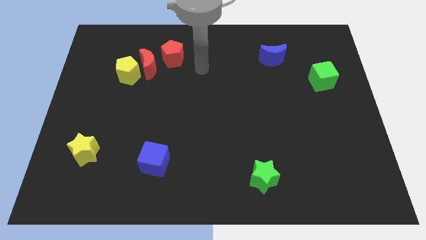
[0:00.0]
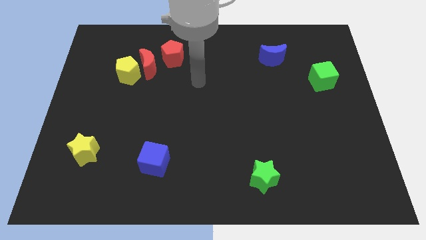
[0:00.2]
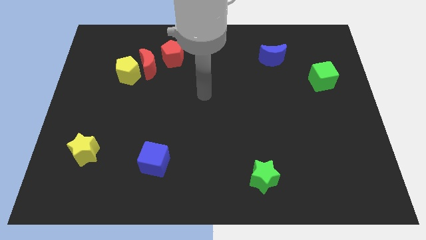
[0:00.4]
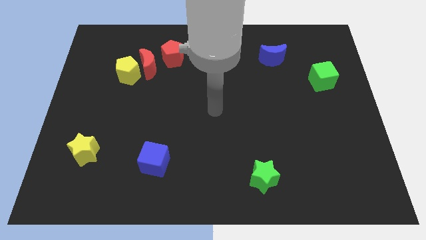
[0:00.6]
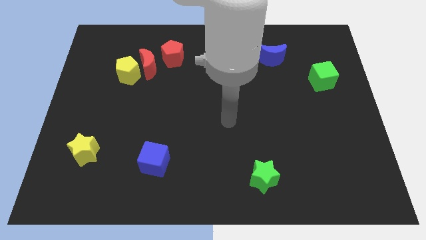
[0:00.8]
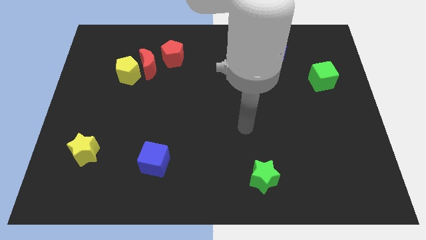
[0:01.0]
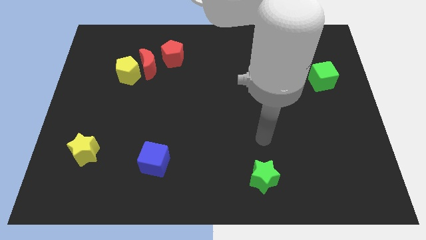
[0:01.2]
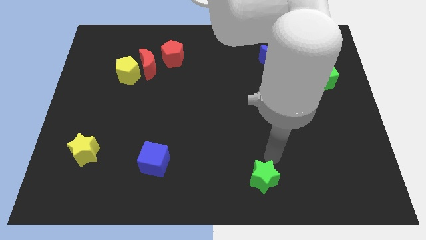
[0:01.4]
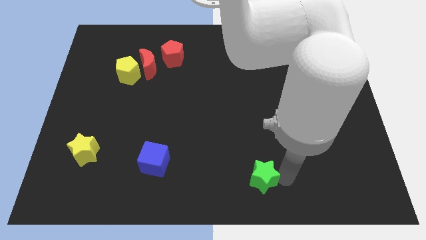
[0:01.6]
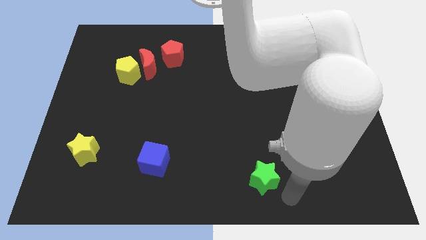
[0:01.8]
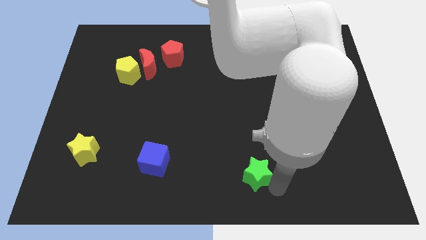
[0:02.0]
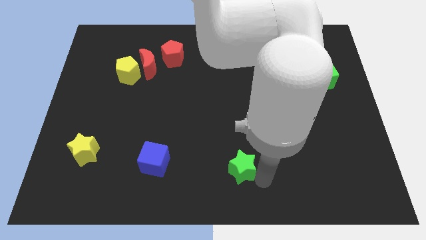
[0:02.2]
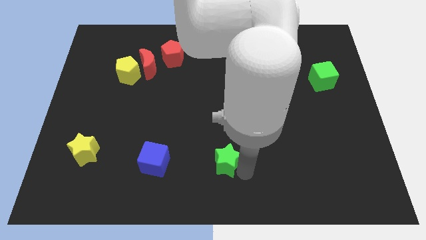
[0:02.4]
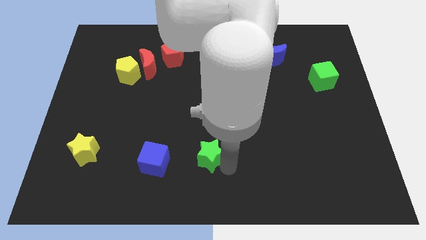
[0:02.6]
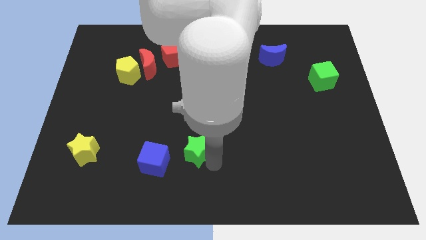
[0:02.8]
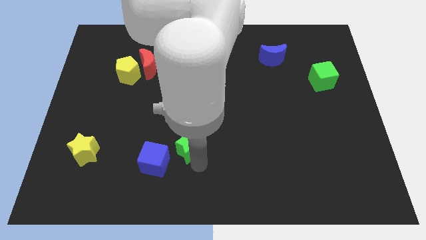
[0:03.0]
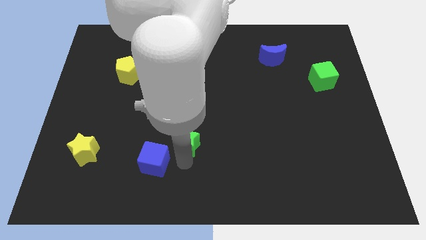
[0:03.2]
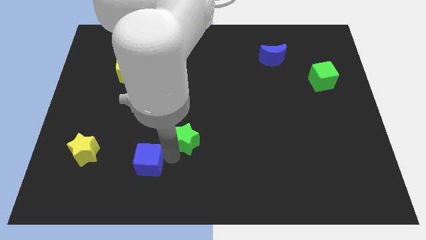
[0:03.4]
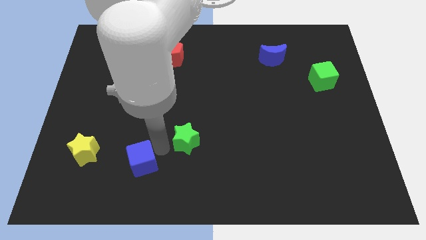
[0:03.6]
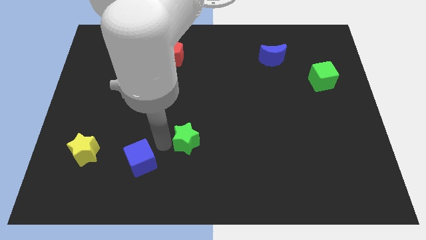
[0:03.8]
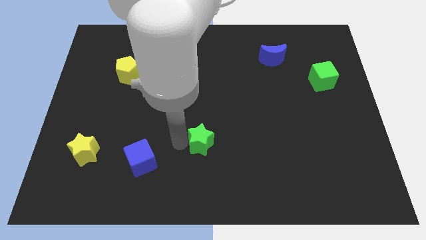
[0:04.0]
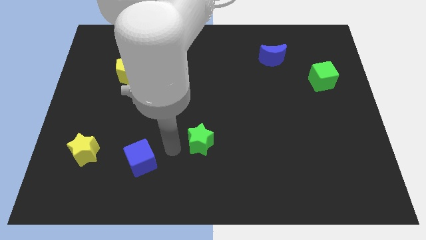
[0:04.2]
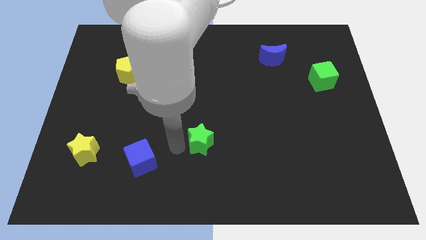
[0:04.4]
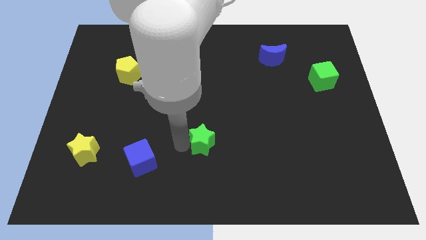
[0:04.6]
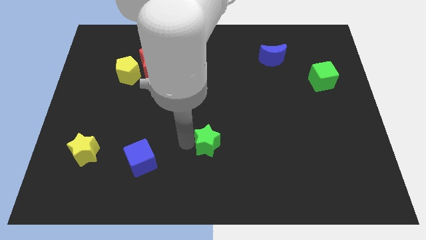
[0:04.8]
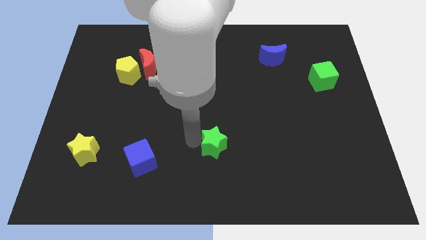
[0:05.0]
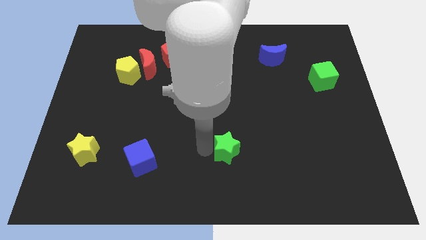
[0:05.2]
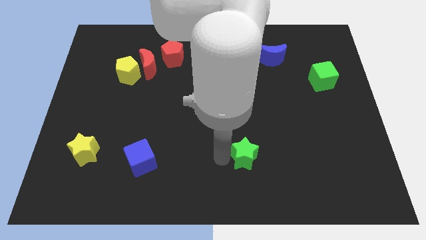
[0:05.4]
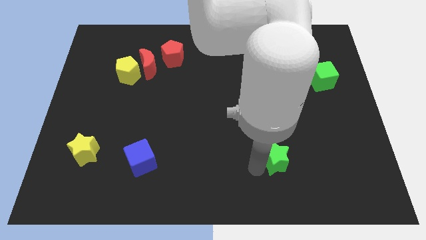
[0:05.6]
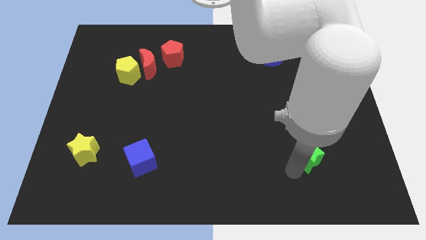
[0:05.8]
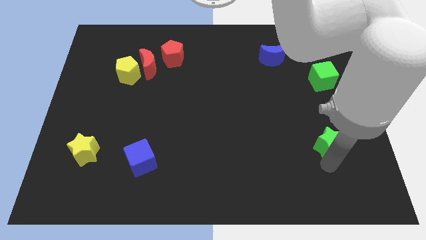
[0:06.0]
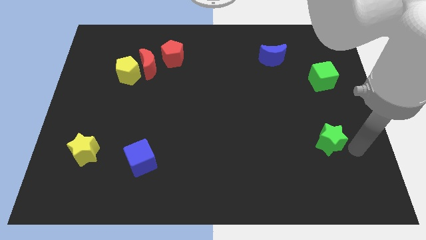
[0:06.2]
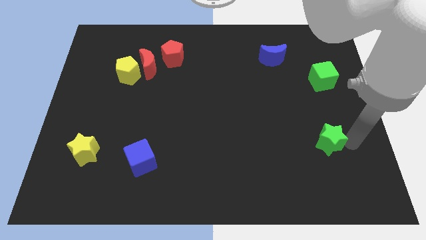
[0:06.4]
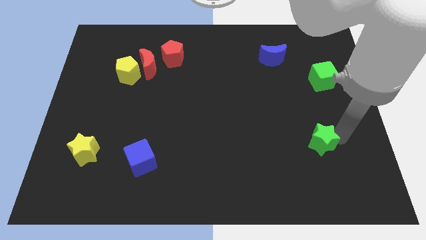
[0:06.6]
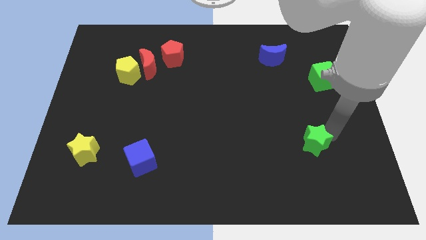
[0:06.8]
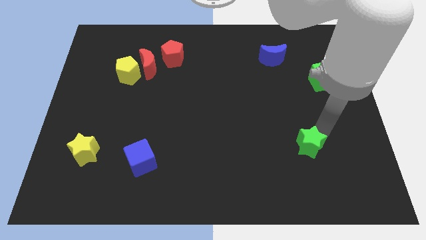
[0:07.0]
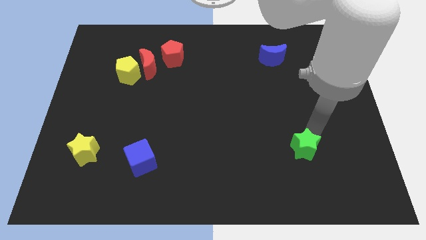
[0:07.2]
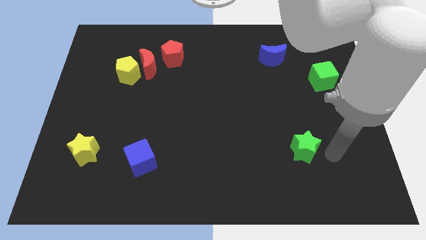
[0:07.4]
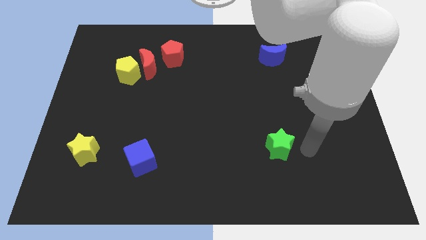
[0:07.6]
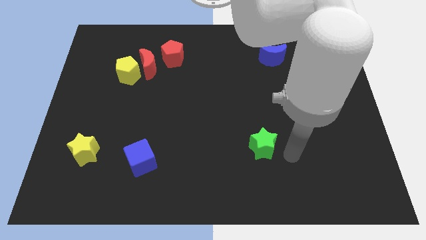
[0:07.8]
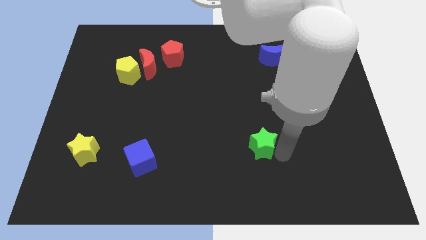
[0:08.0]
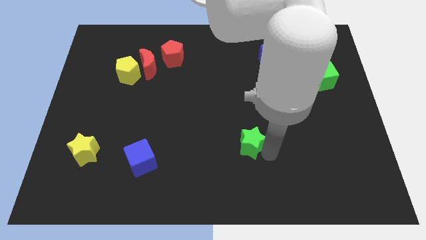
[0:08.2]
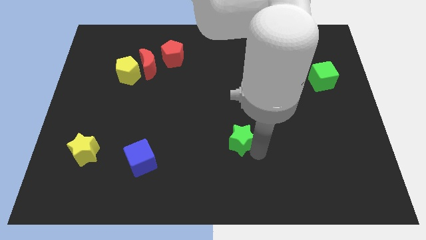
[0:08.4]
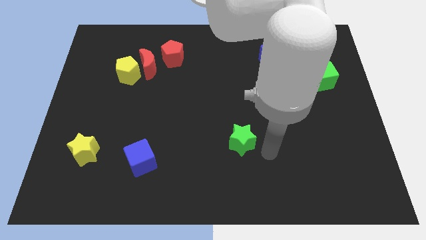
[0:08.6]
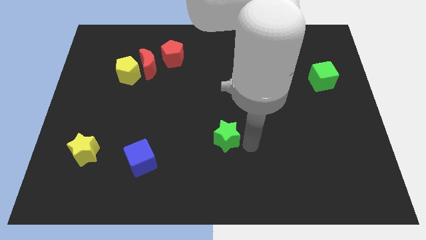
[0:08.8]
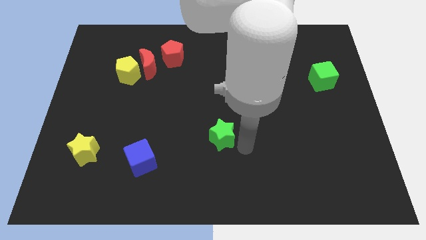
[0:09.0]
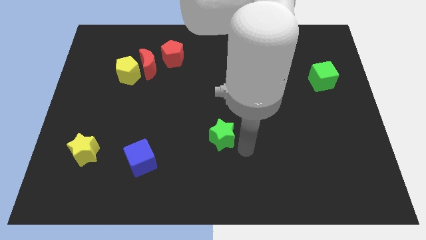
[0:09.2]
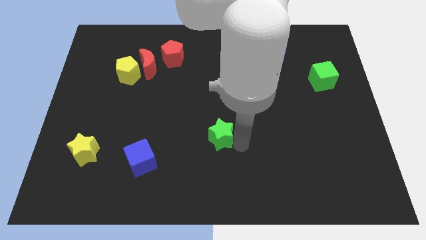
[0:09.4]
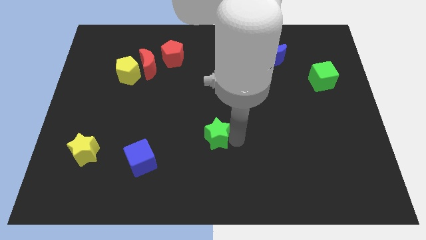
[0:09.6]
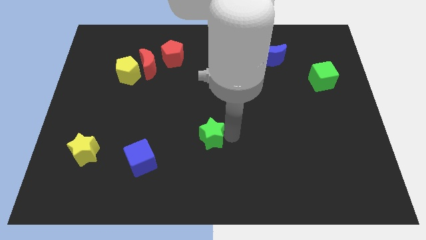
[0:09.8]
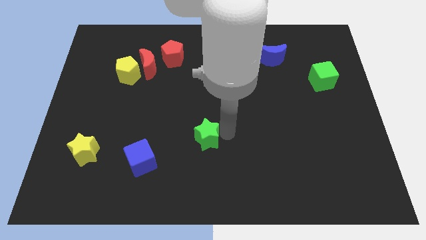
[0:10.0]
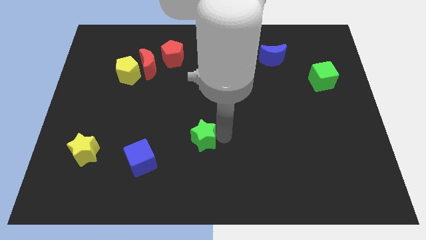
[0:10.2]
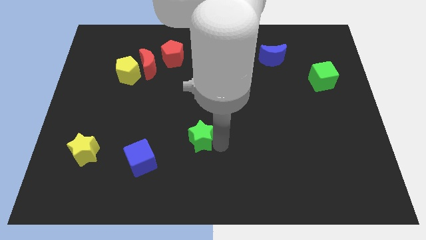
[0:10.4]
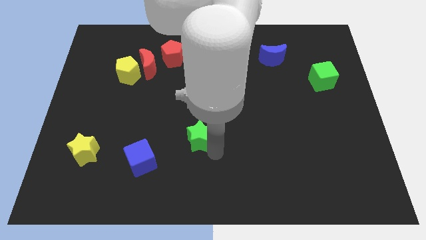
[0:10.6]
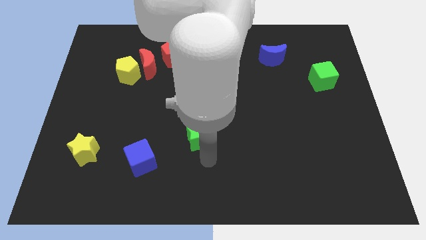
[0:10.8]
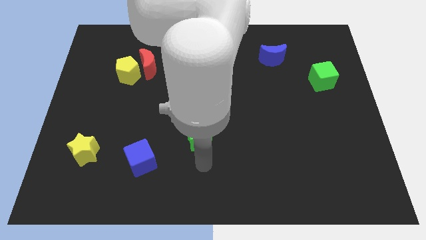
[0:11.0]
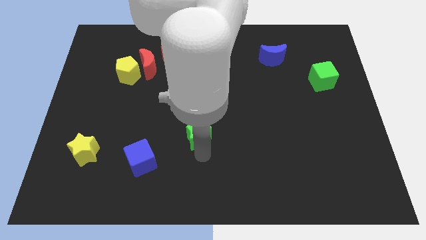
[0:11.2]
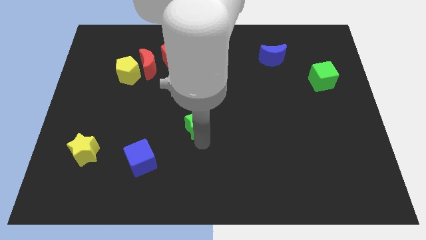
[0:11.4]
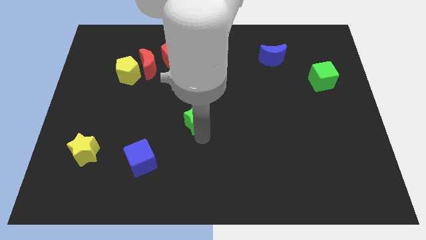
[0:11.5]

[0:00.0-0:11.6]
push the green star up and then left

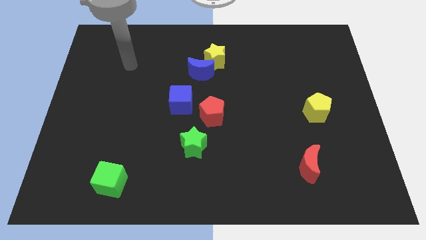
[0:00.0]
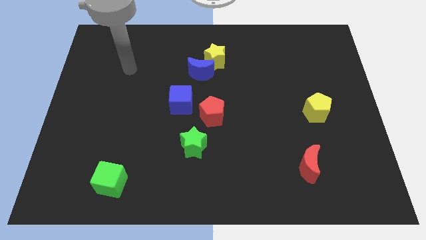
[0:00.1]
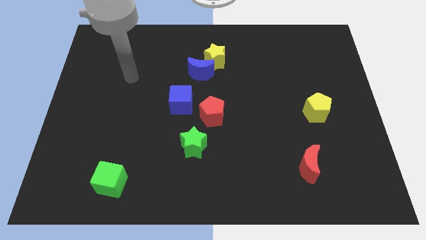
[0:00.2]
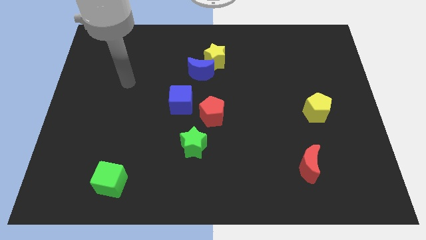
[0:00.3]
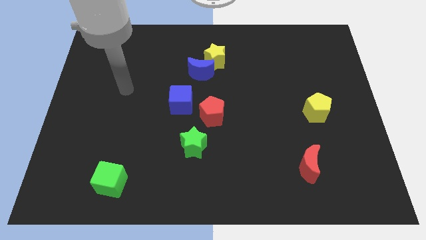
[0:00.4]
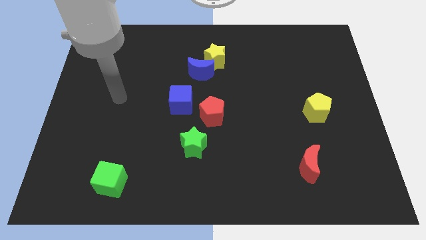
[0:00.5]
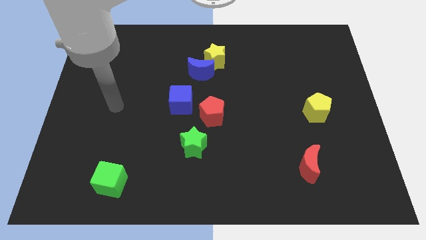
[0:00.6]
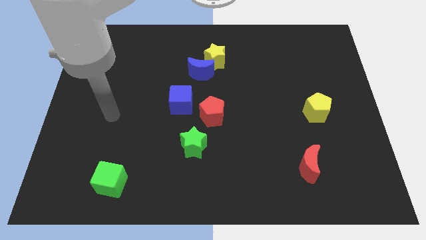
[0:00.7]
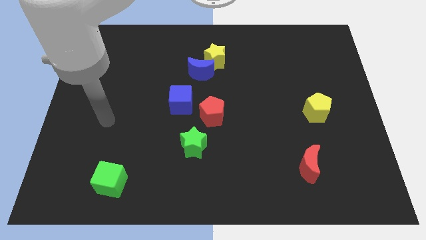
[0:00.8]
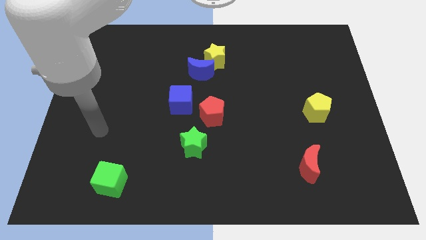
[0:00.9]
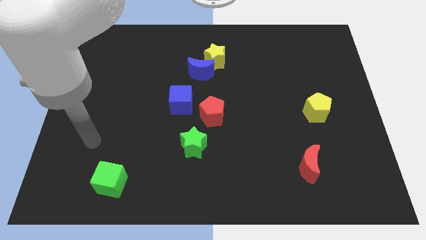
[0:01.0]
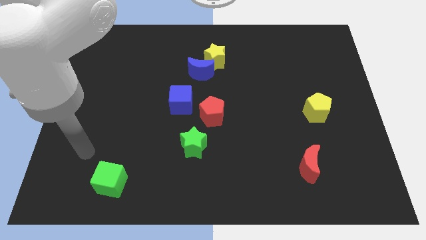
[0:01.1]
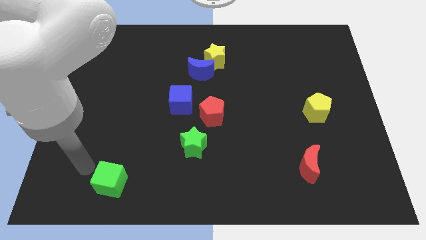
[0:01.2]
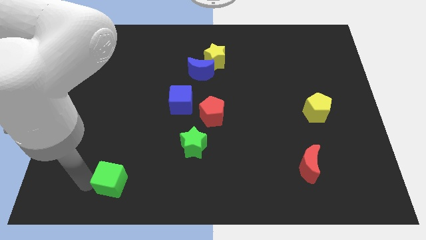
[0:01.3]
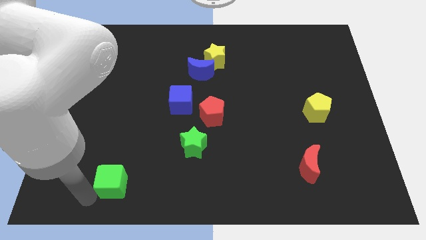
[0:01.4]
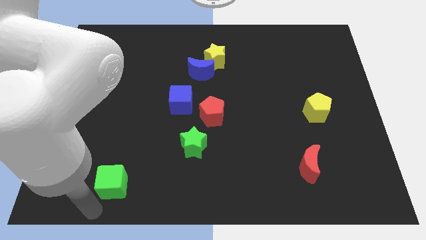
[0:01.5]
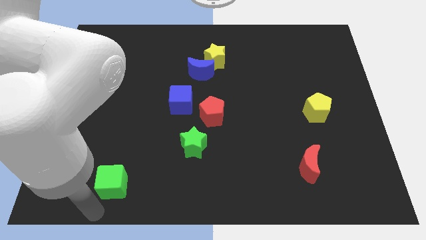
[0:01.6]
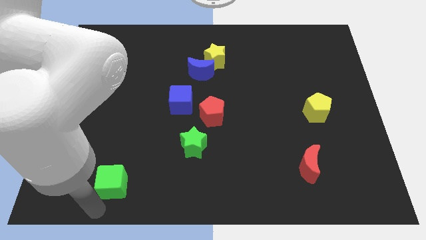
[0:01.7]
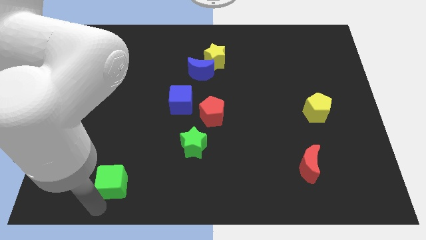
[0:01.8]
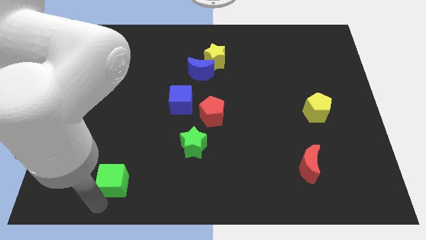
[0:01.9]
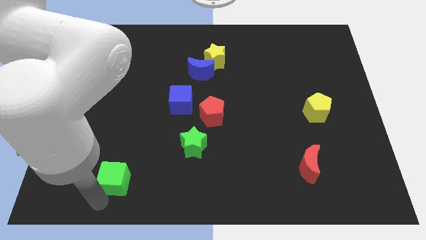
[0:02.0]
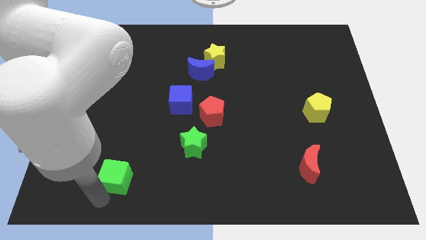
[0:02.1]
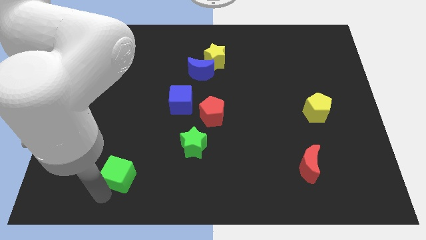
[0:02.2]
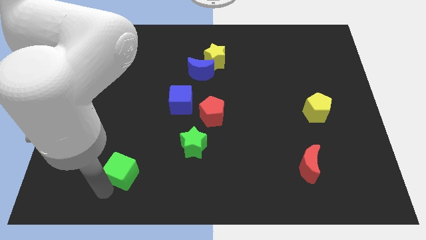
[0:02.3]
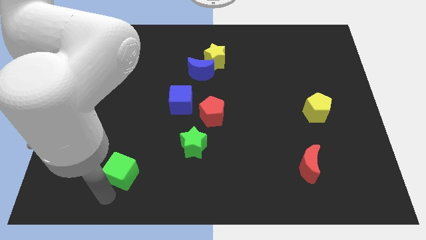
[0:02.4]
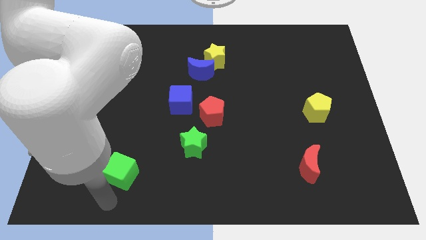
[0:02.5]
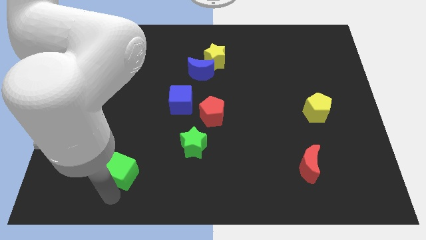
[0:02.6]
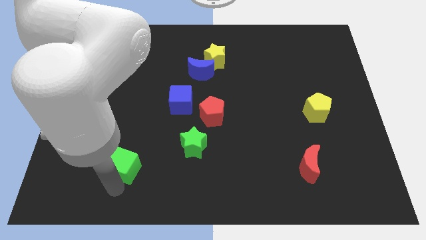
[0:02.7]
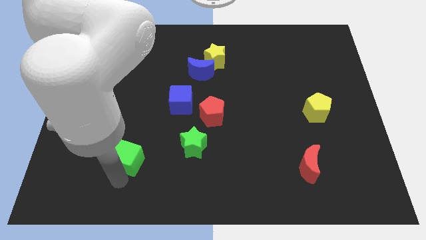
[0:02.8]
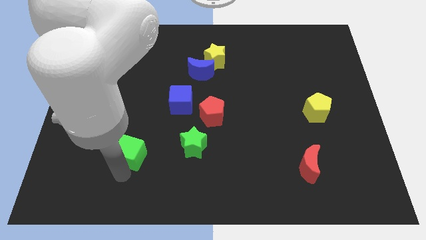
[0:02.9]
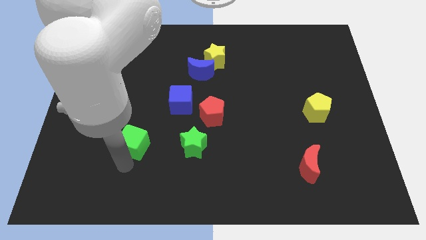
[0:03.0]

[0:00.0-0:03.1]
slide the green cube up and then to the right a little
